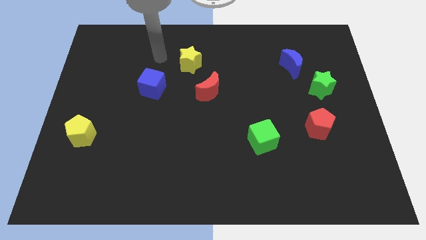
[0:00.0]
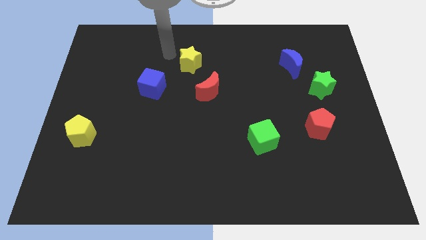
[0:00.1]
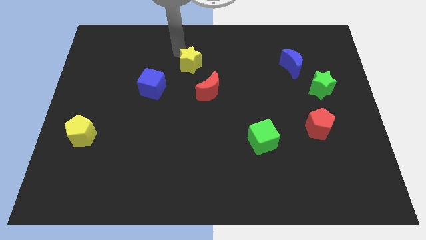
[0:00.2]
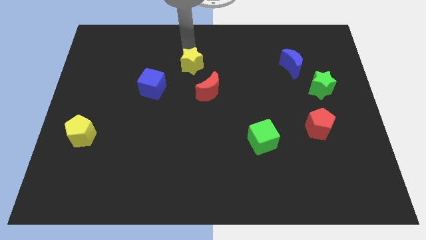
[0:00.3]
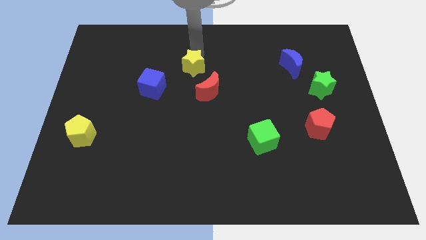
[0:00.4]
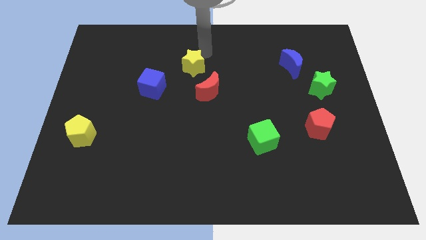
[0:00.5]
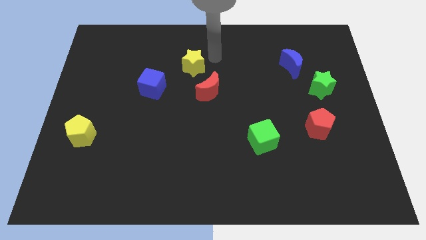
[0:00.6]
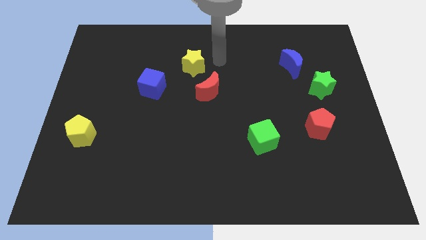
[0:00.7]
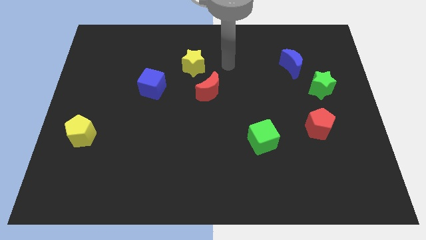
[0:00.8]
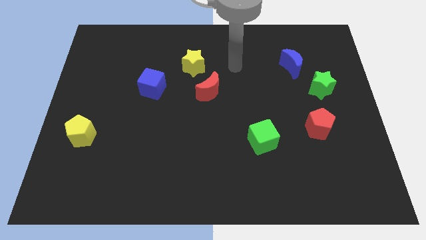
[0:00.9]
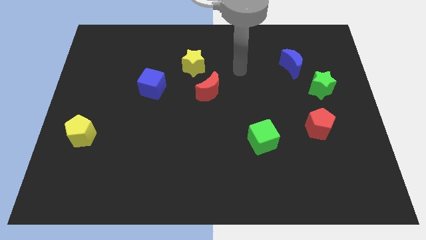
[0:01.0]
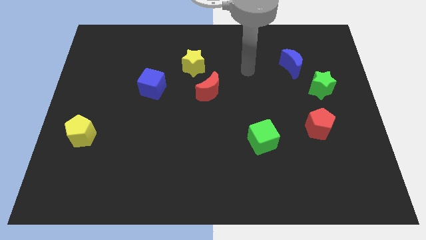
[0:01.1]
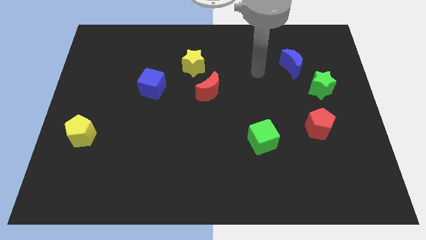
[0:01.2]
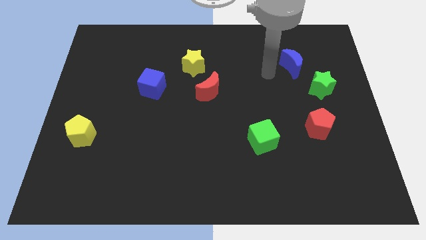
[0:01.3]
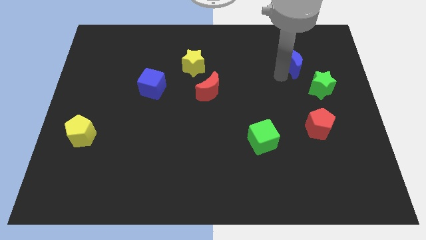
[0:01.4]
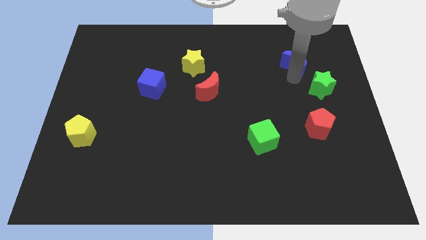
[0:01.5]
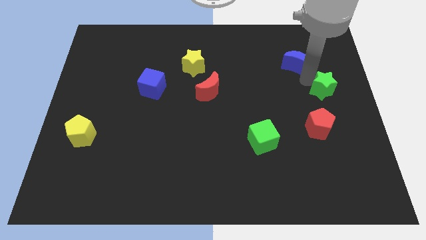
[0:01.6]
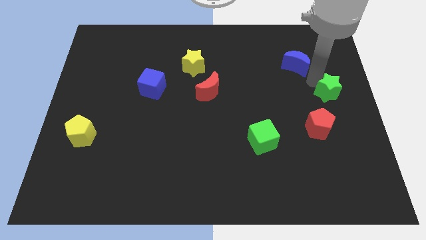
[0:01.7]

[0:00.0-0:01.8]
separate the blue moon from the green star

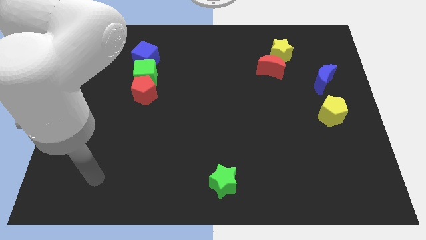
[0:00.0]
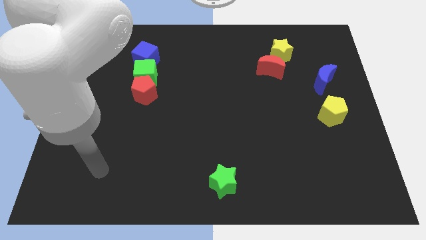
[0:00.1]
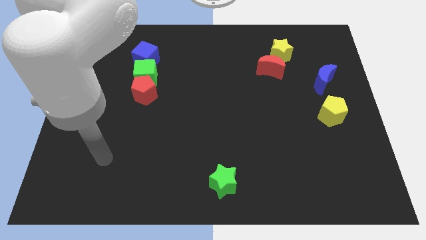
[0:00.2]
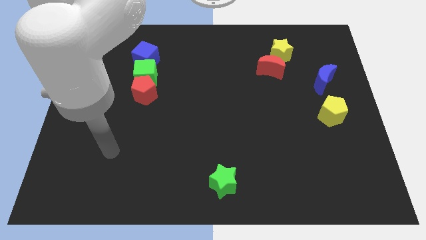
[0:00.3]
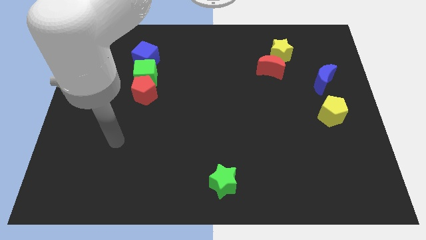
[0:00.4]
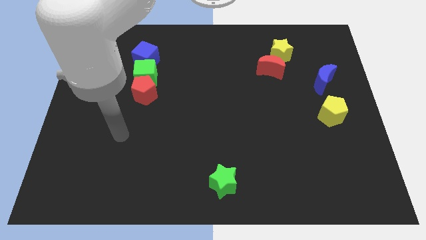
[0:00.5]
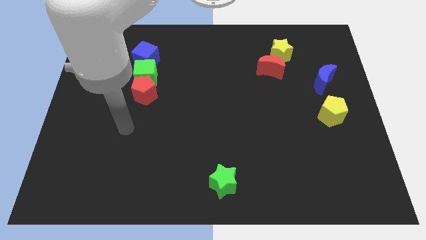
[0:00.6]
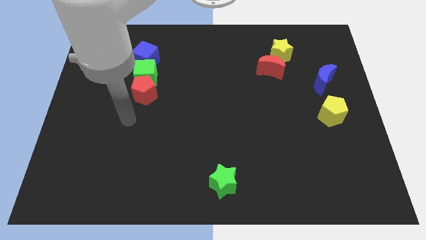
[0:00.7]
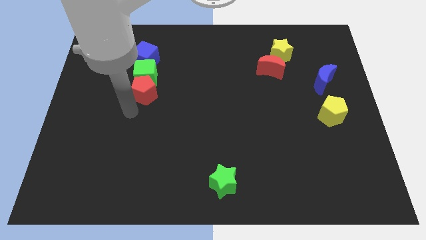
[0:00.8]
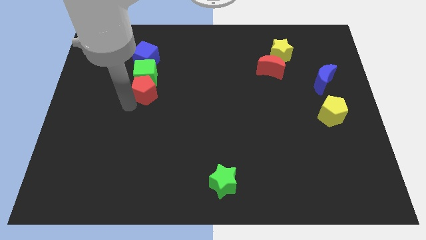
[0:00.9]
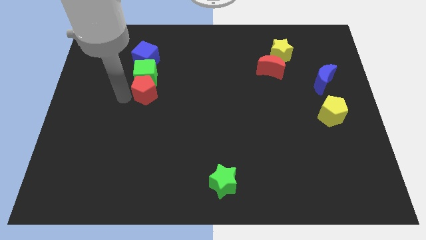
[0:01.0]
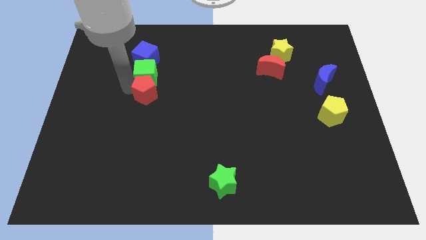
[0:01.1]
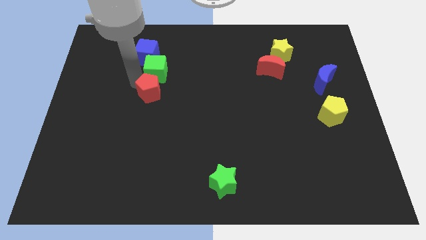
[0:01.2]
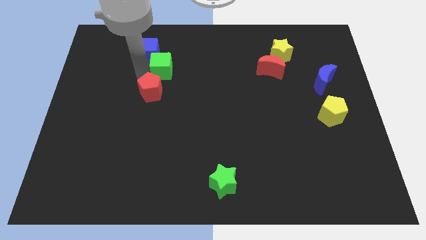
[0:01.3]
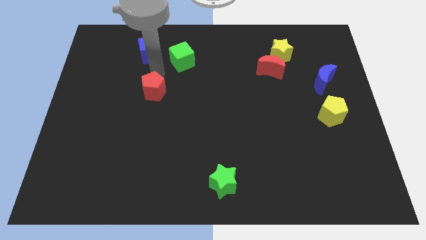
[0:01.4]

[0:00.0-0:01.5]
pull the red pentagon apart from the green cube

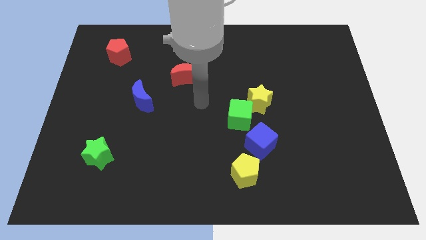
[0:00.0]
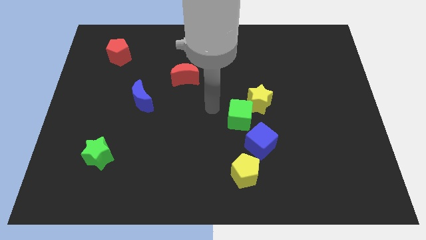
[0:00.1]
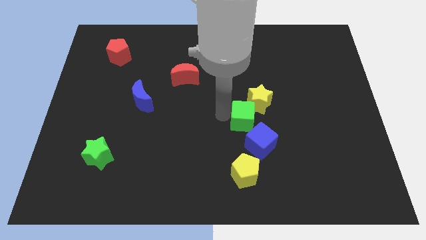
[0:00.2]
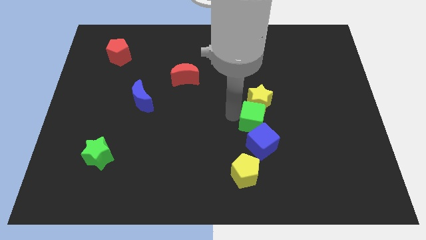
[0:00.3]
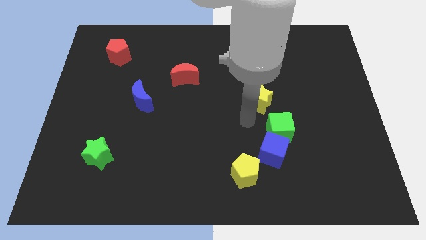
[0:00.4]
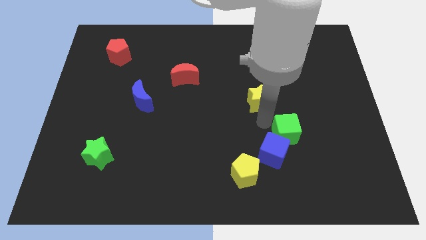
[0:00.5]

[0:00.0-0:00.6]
separate the yellow star from the green cube

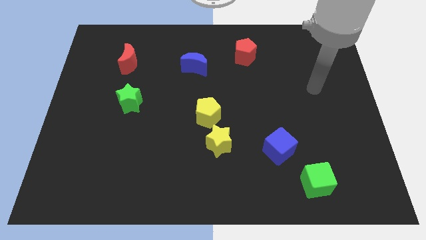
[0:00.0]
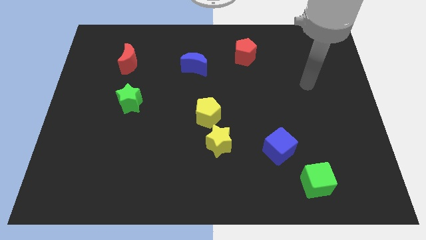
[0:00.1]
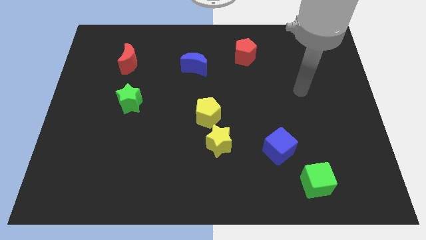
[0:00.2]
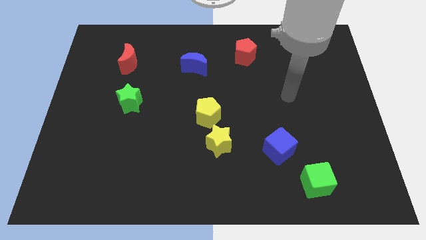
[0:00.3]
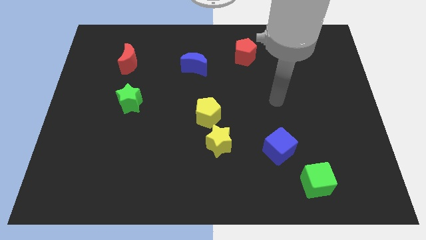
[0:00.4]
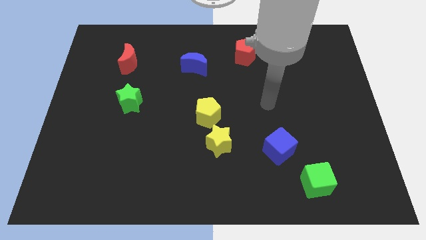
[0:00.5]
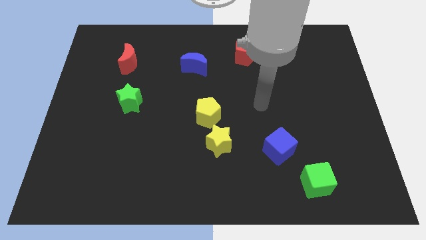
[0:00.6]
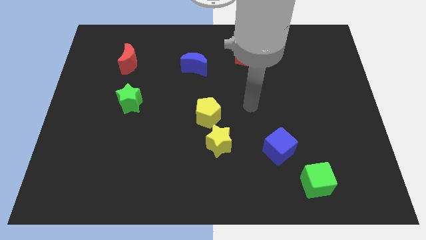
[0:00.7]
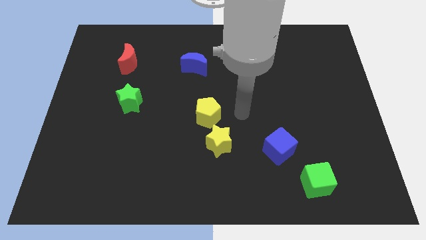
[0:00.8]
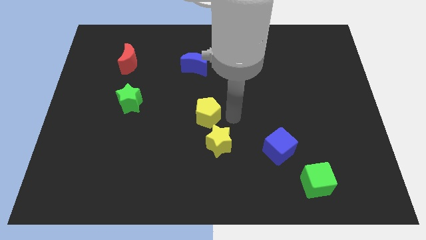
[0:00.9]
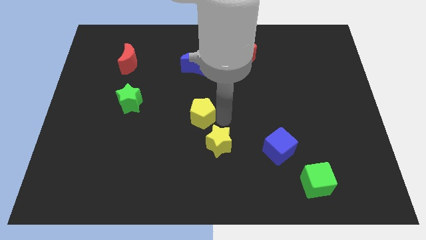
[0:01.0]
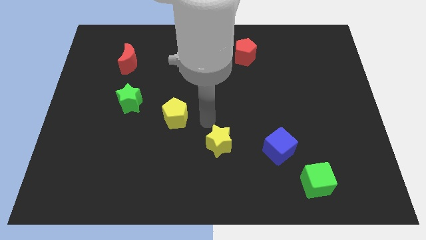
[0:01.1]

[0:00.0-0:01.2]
move the yellow star away from the yellow pentagon

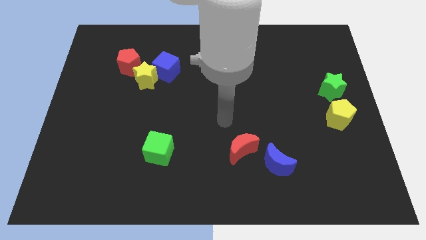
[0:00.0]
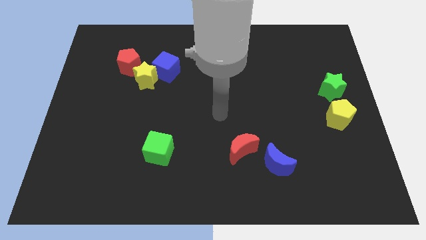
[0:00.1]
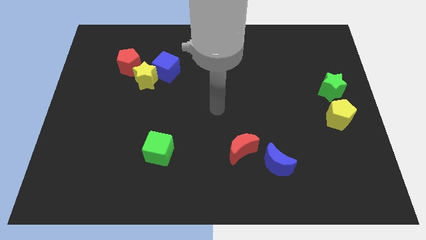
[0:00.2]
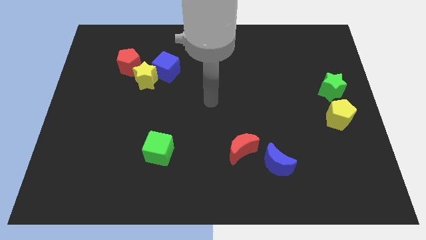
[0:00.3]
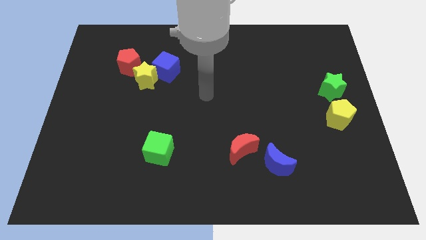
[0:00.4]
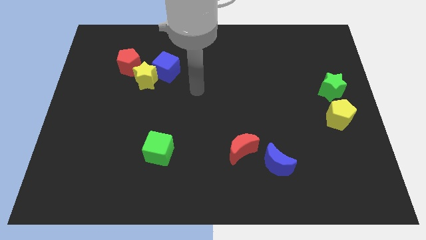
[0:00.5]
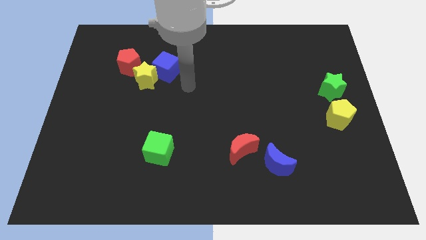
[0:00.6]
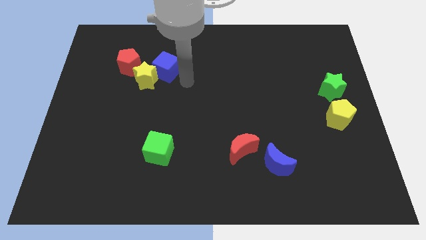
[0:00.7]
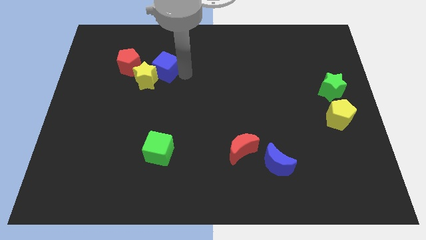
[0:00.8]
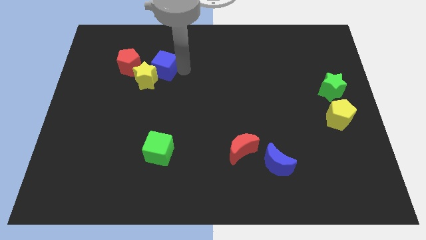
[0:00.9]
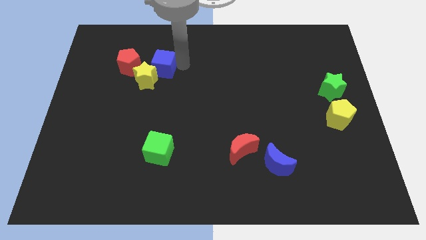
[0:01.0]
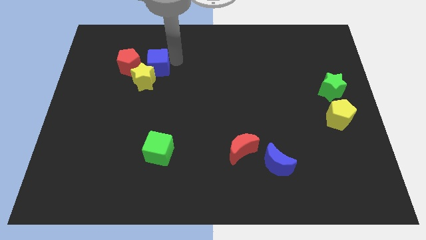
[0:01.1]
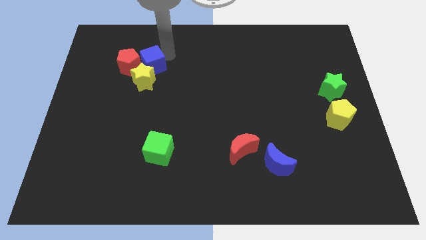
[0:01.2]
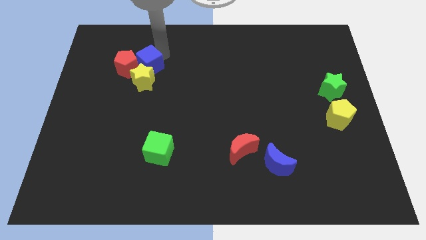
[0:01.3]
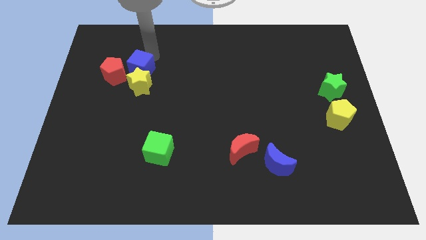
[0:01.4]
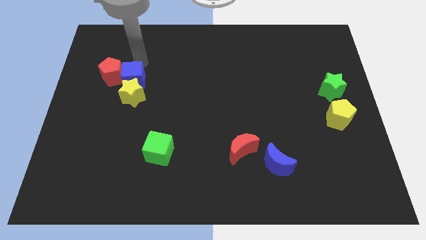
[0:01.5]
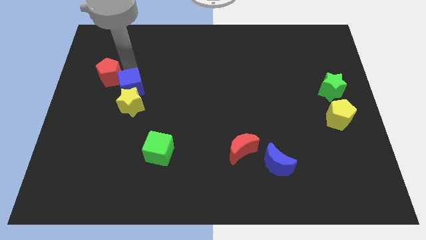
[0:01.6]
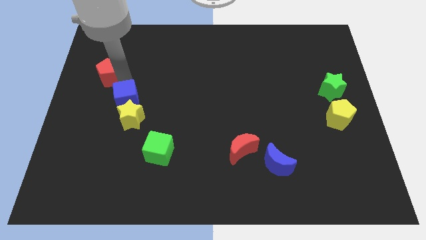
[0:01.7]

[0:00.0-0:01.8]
move the yellow star away from the blue cube and red pentagon

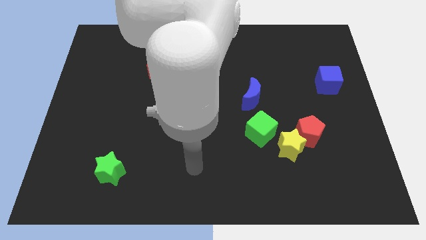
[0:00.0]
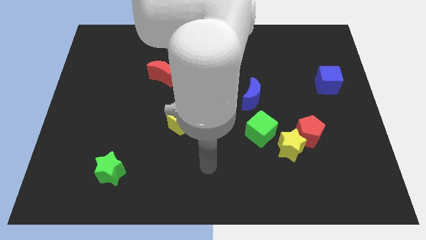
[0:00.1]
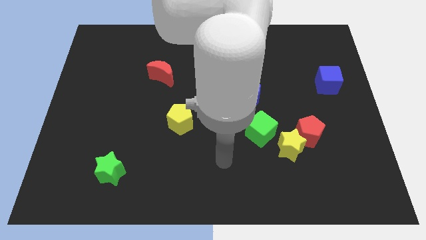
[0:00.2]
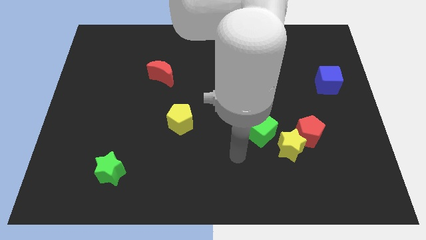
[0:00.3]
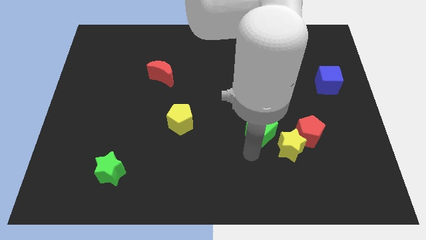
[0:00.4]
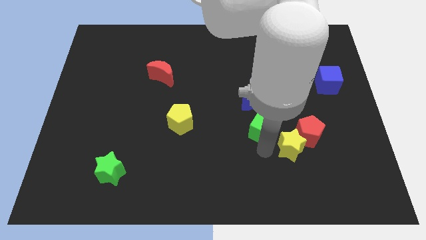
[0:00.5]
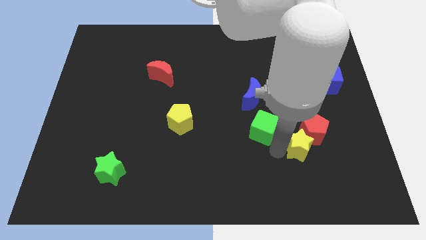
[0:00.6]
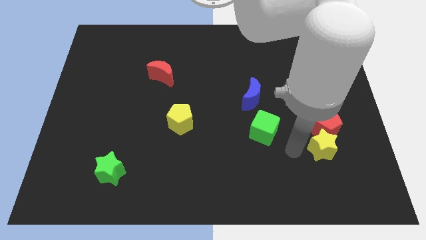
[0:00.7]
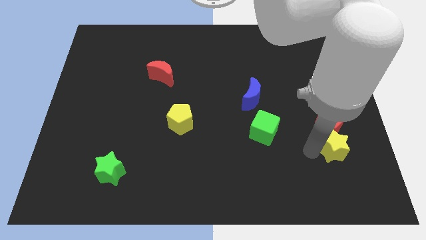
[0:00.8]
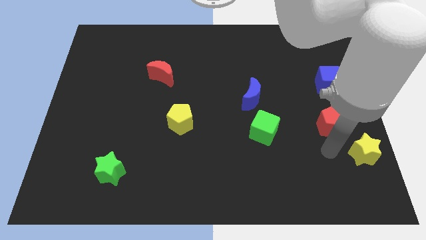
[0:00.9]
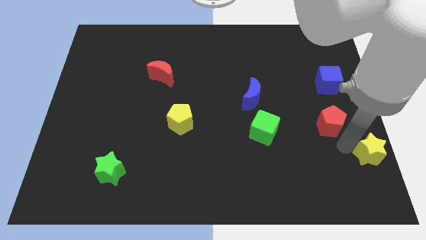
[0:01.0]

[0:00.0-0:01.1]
pull the red pentagon apart from the yellow star

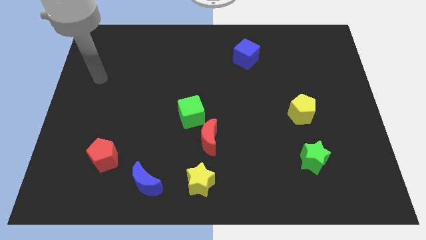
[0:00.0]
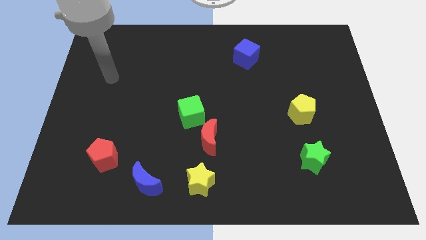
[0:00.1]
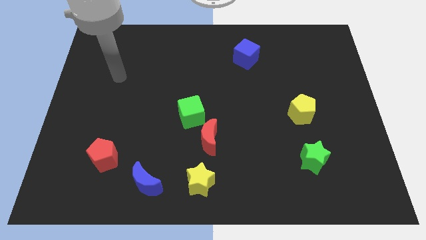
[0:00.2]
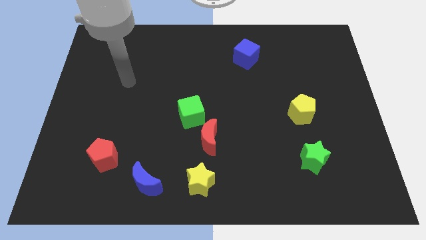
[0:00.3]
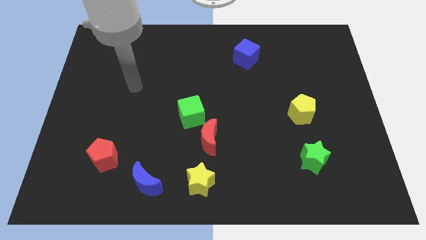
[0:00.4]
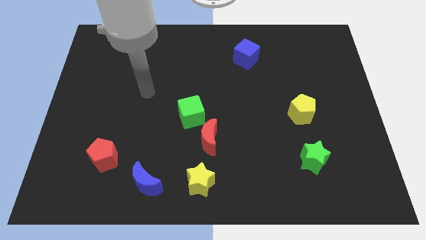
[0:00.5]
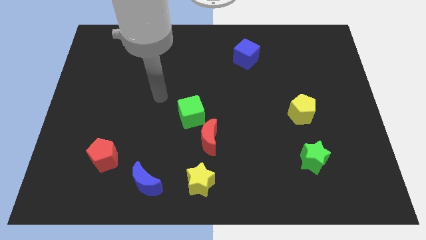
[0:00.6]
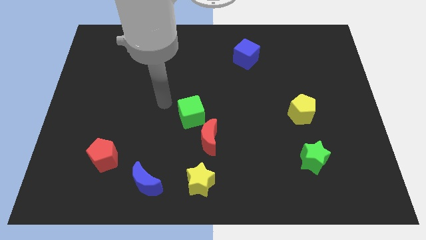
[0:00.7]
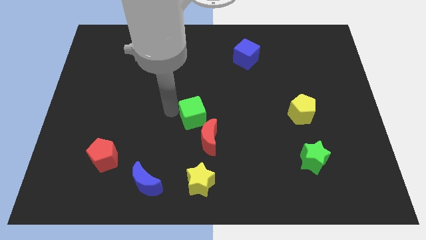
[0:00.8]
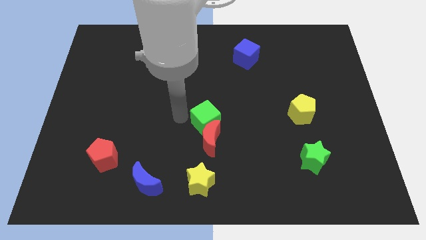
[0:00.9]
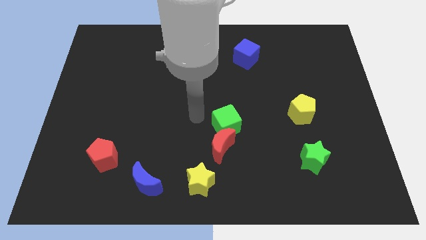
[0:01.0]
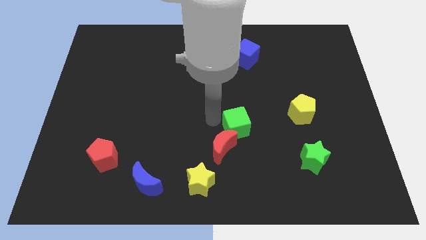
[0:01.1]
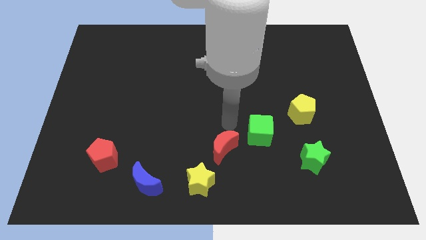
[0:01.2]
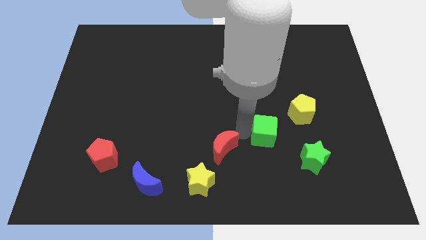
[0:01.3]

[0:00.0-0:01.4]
pull the red moon apart from the green cube
